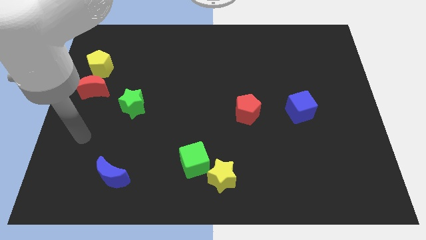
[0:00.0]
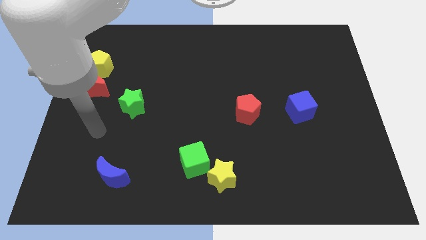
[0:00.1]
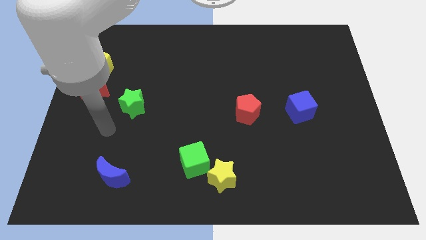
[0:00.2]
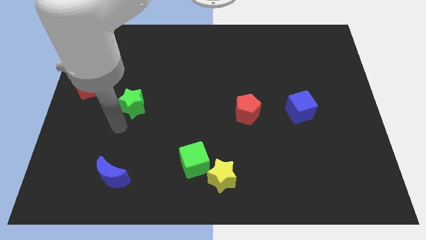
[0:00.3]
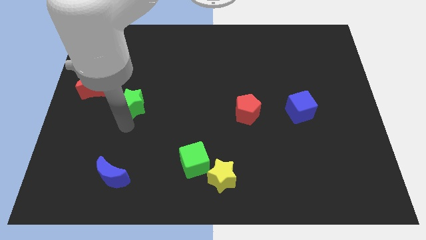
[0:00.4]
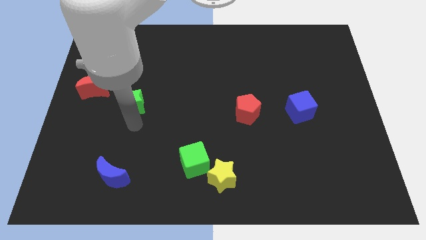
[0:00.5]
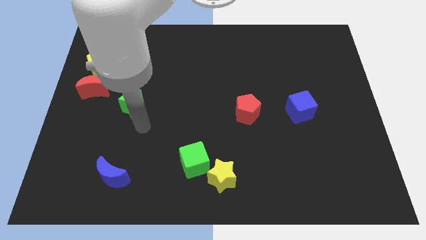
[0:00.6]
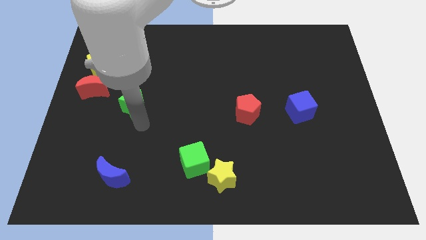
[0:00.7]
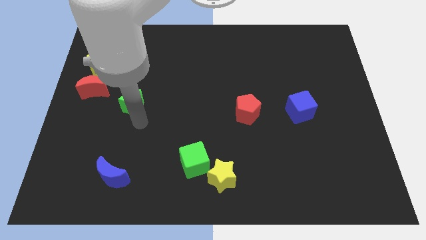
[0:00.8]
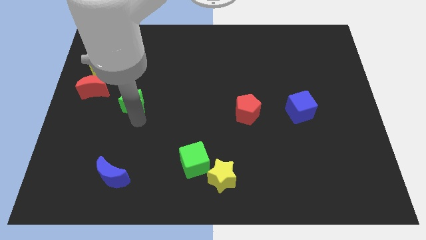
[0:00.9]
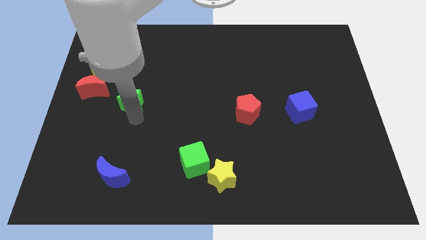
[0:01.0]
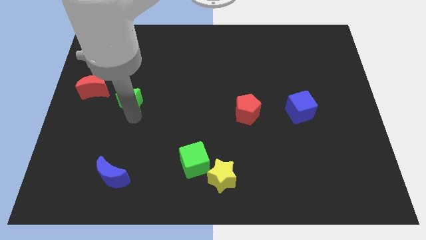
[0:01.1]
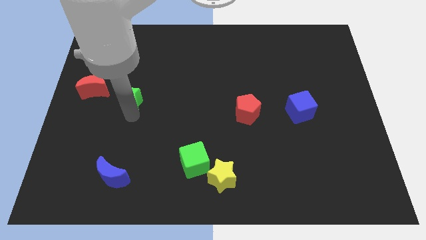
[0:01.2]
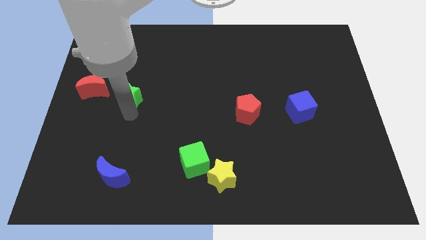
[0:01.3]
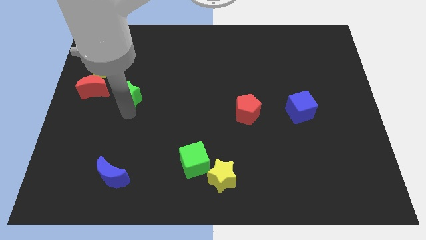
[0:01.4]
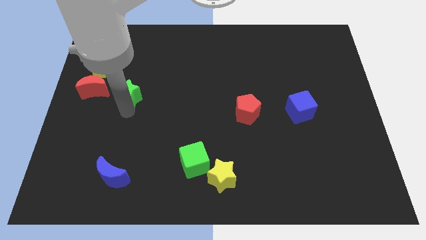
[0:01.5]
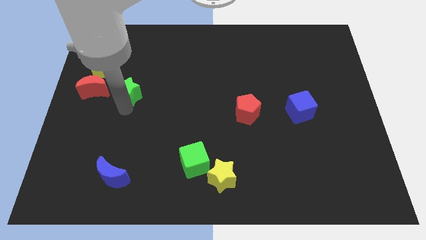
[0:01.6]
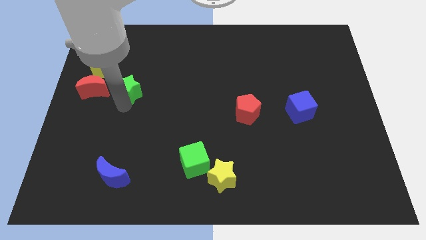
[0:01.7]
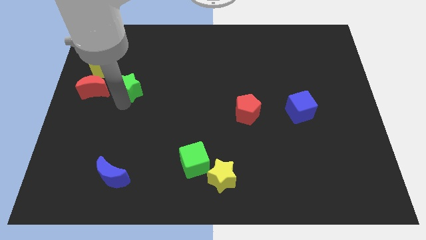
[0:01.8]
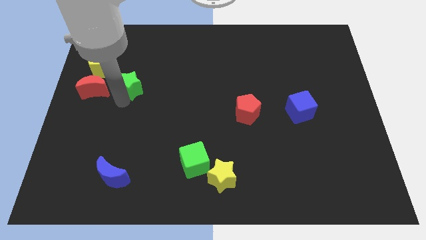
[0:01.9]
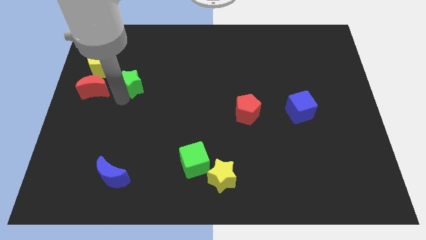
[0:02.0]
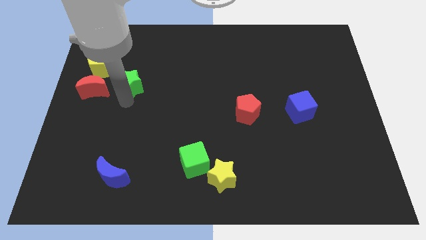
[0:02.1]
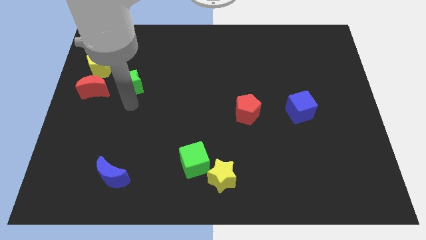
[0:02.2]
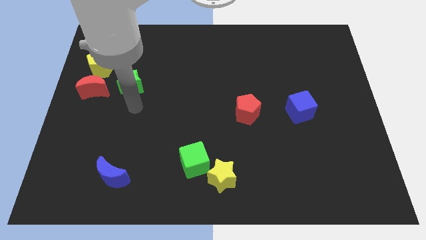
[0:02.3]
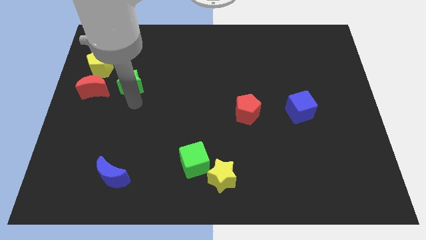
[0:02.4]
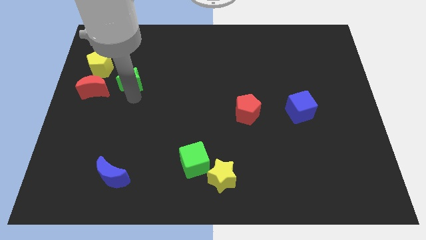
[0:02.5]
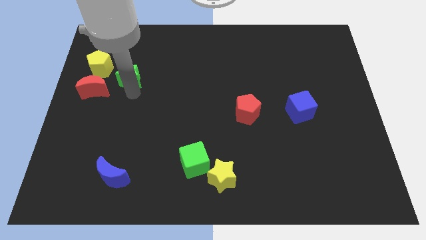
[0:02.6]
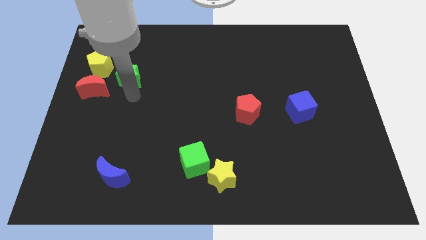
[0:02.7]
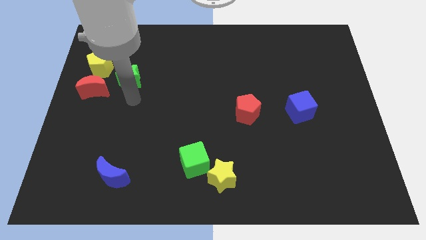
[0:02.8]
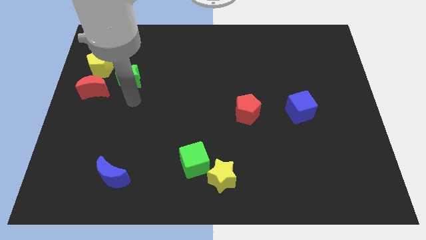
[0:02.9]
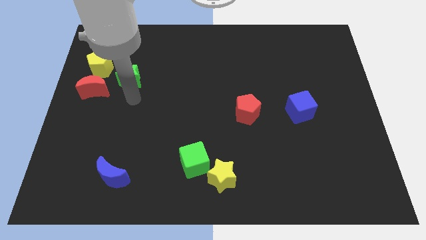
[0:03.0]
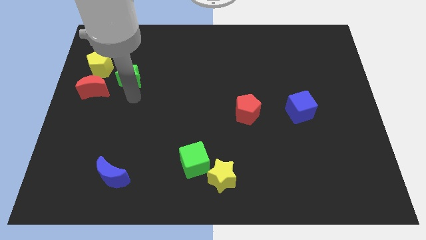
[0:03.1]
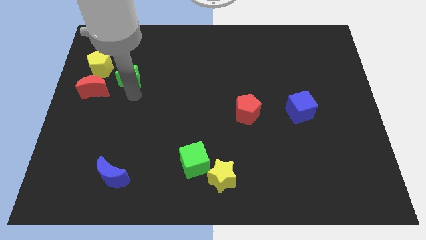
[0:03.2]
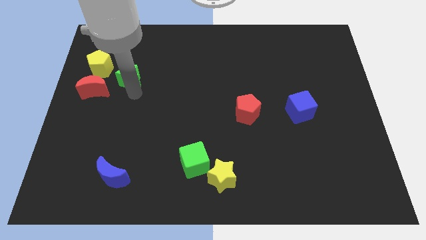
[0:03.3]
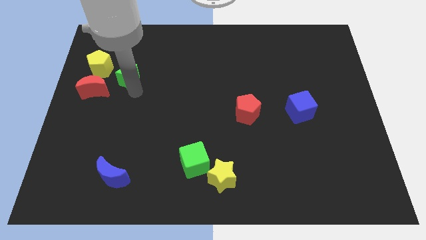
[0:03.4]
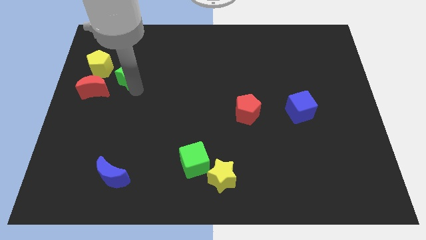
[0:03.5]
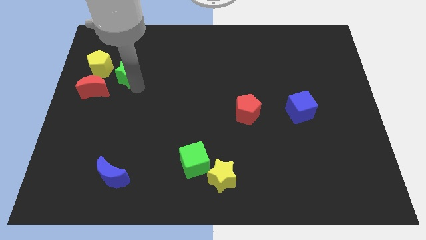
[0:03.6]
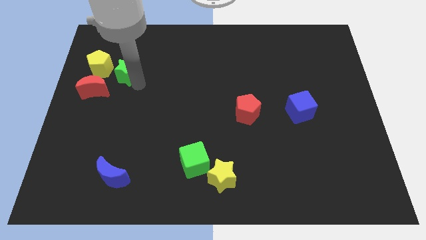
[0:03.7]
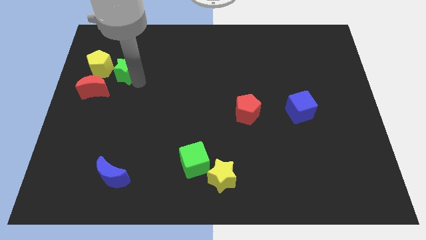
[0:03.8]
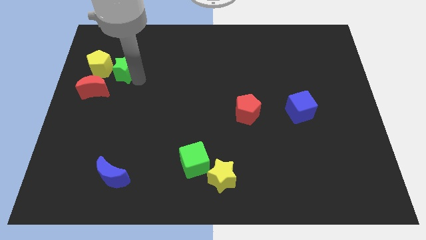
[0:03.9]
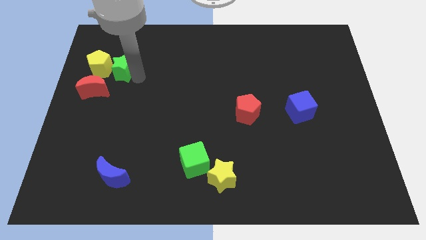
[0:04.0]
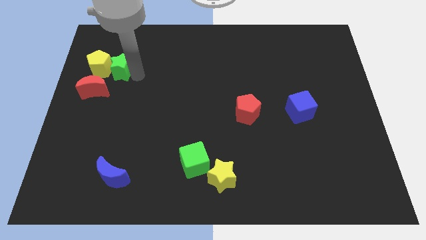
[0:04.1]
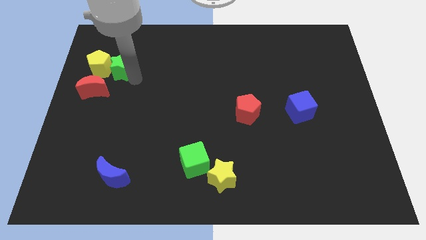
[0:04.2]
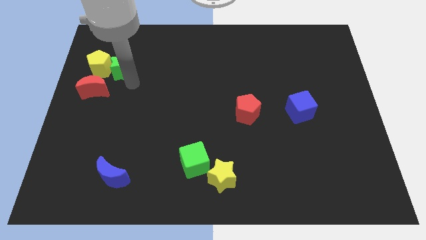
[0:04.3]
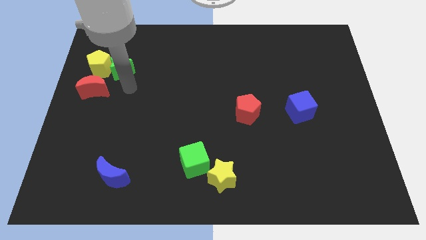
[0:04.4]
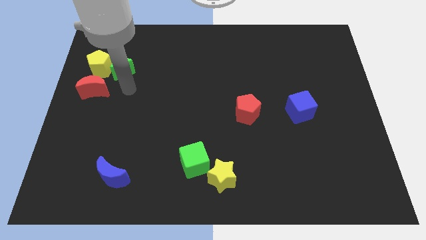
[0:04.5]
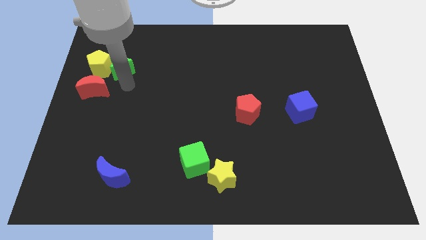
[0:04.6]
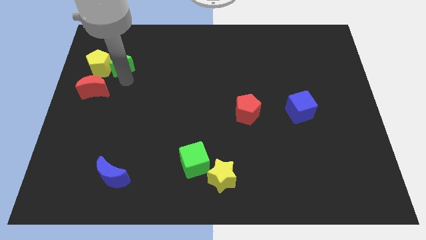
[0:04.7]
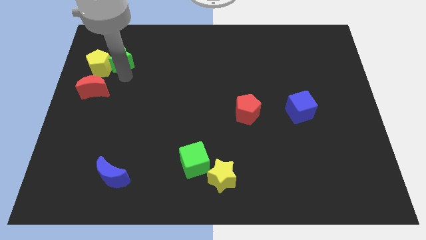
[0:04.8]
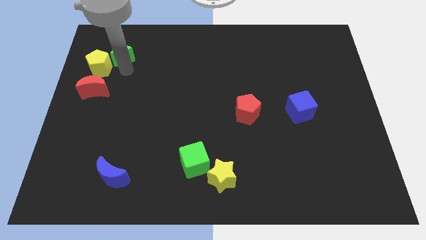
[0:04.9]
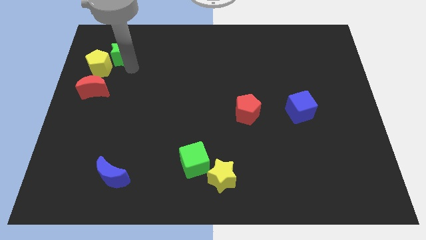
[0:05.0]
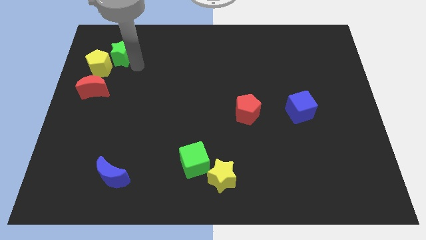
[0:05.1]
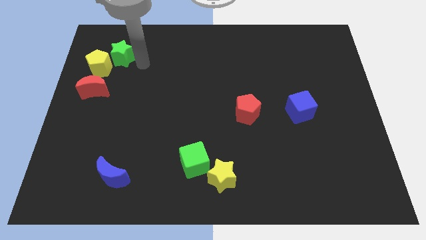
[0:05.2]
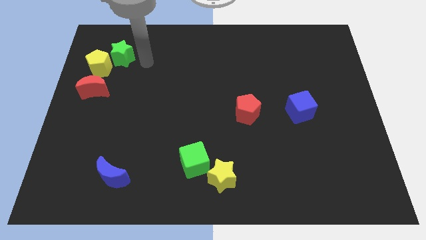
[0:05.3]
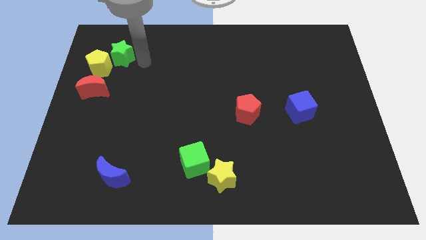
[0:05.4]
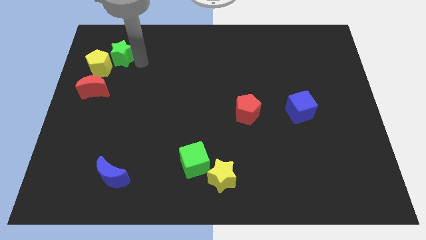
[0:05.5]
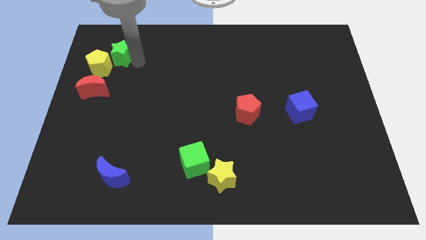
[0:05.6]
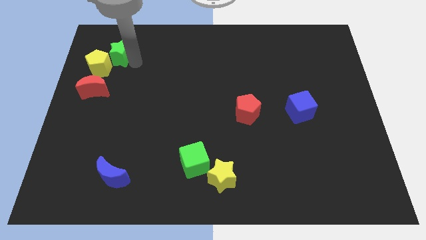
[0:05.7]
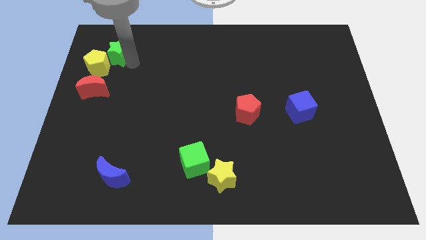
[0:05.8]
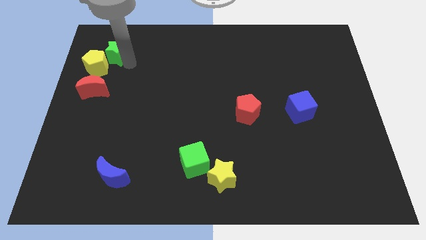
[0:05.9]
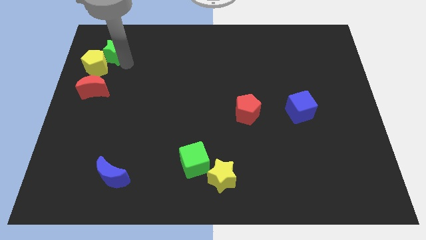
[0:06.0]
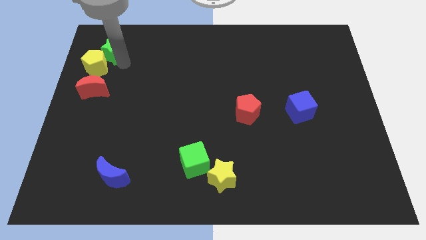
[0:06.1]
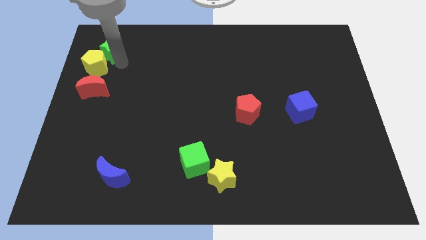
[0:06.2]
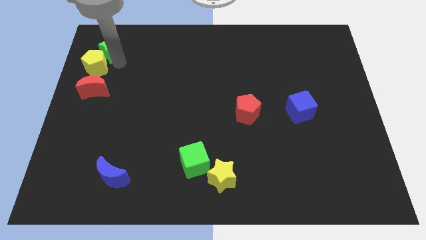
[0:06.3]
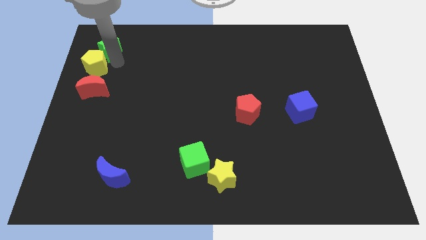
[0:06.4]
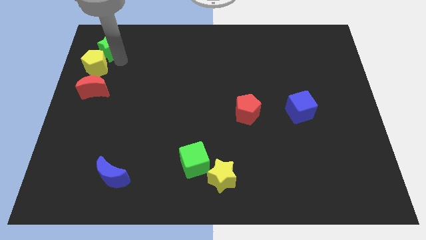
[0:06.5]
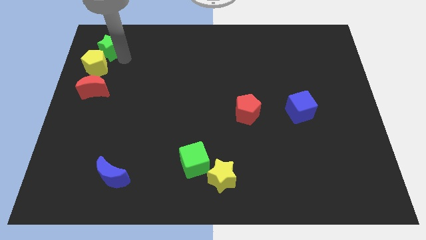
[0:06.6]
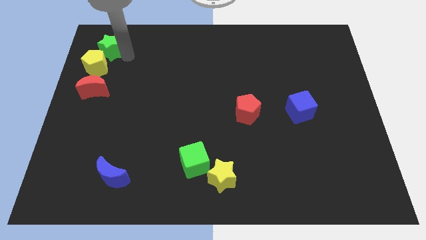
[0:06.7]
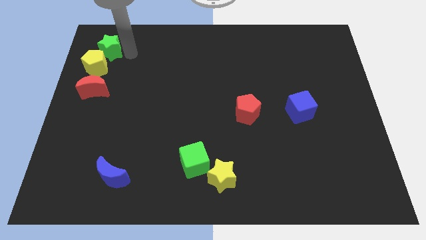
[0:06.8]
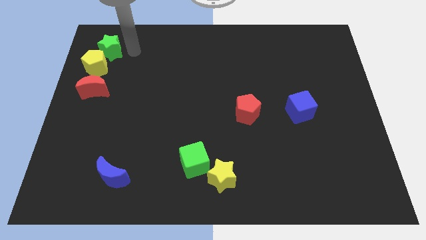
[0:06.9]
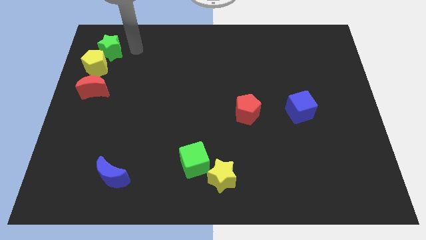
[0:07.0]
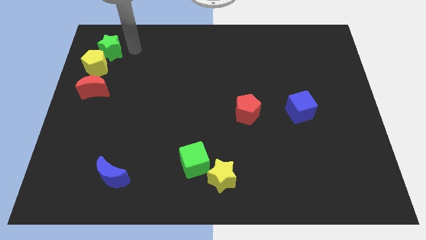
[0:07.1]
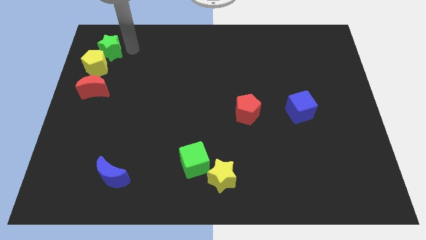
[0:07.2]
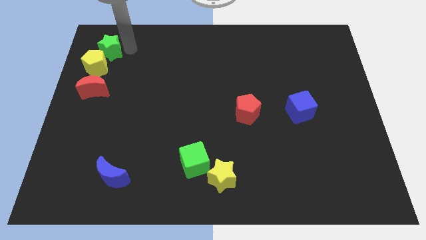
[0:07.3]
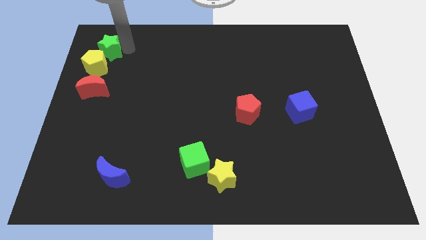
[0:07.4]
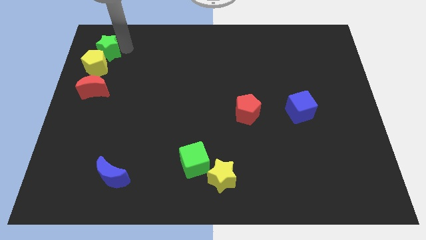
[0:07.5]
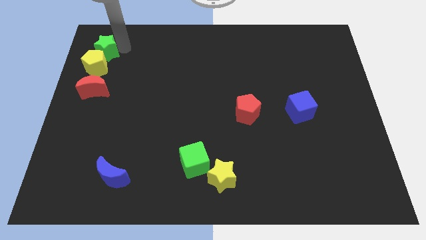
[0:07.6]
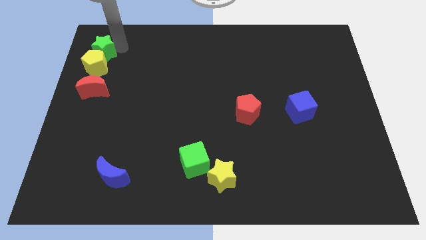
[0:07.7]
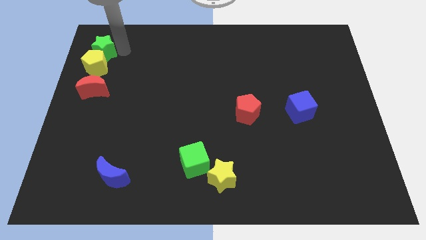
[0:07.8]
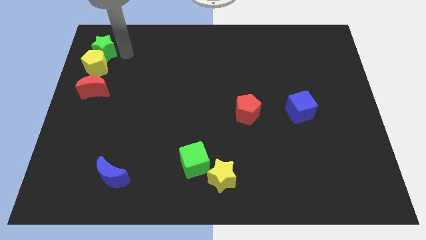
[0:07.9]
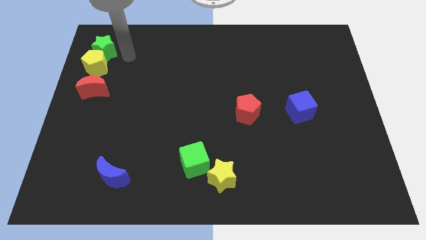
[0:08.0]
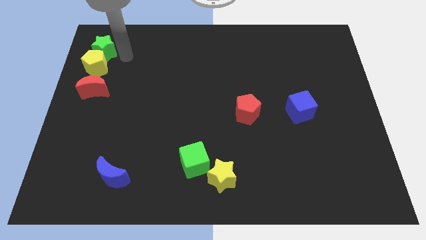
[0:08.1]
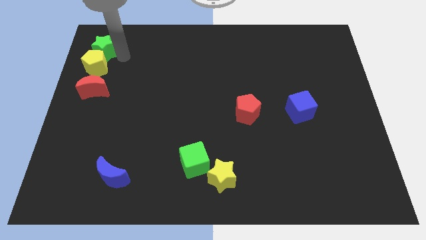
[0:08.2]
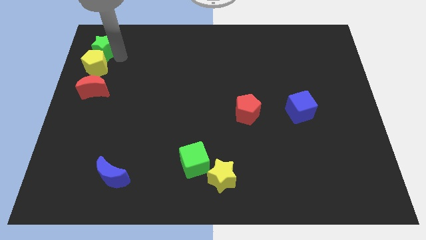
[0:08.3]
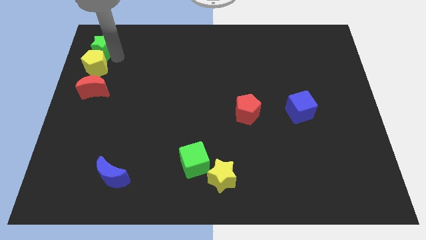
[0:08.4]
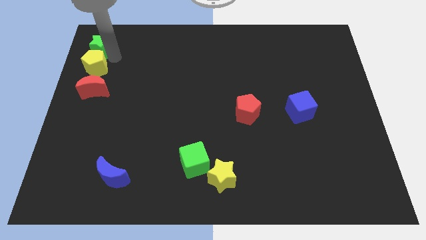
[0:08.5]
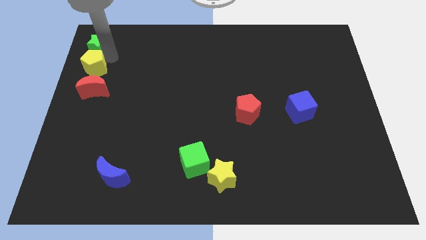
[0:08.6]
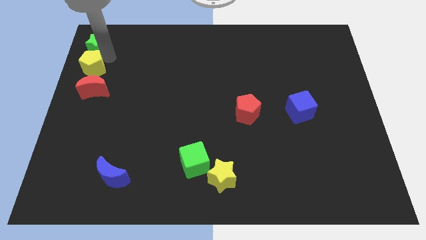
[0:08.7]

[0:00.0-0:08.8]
push the green star to the top left corner
